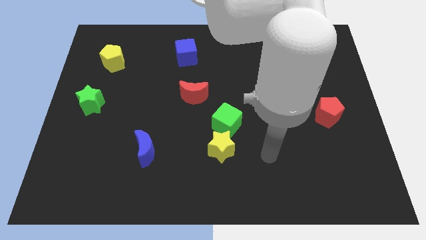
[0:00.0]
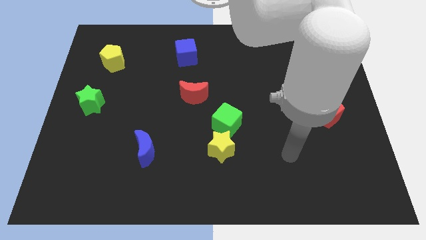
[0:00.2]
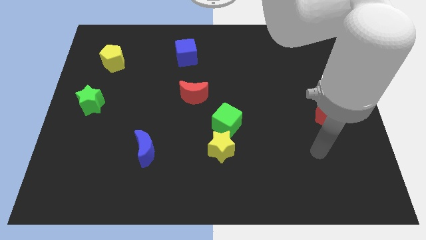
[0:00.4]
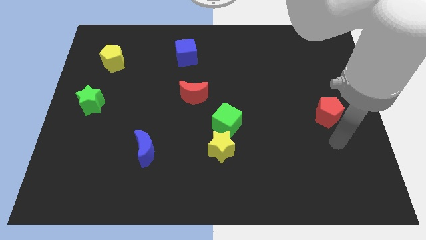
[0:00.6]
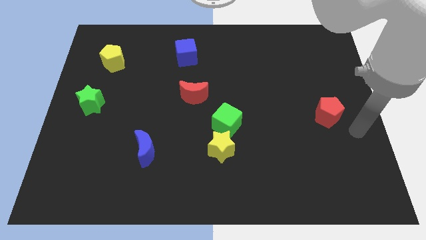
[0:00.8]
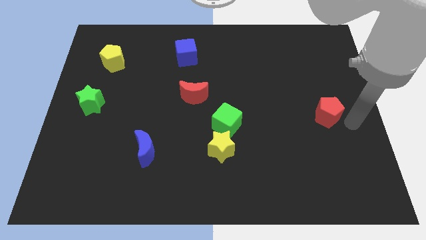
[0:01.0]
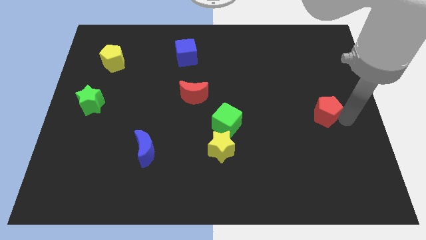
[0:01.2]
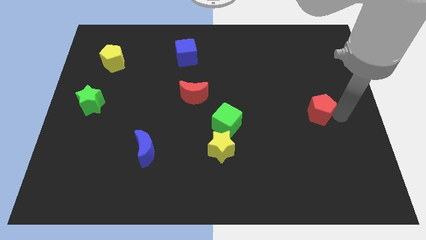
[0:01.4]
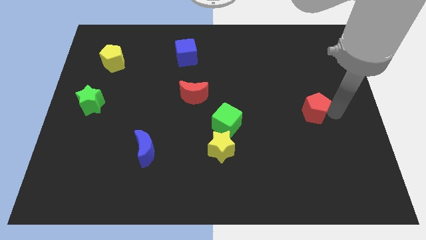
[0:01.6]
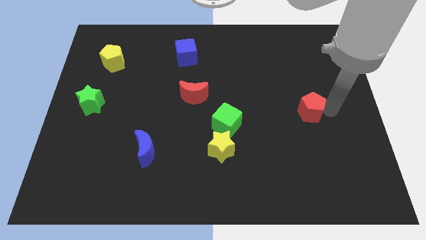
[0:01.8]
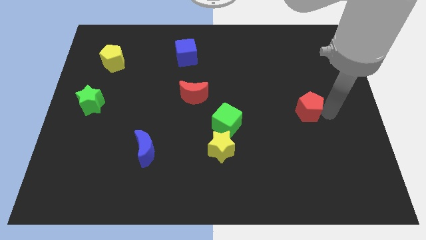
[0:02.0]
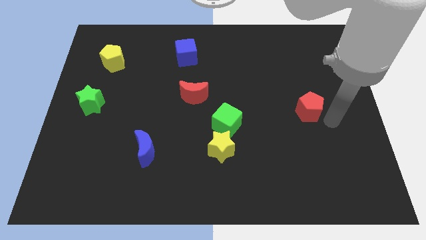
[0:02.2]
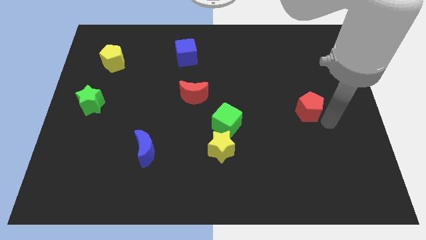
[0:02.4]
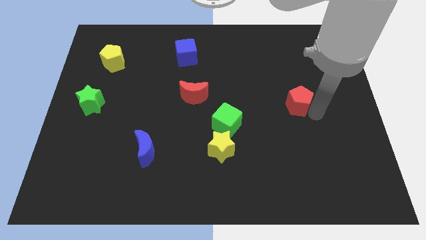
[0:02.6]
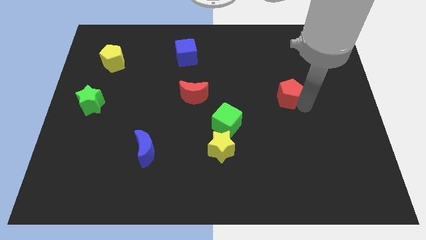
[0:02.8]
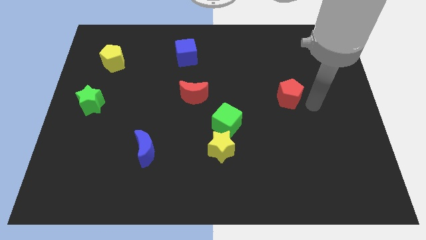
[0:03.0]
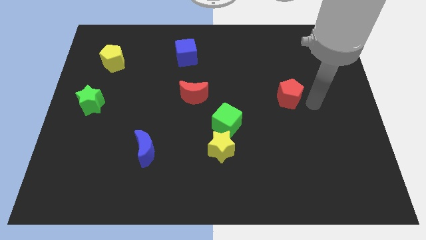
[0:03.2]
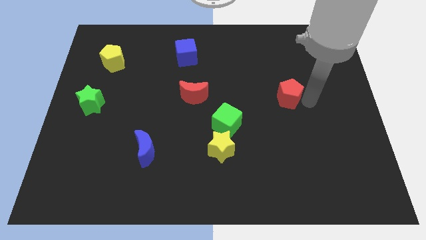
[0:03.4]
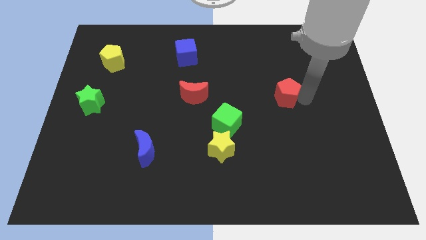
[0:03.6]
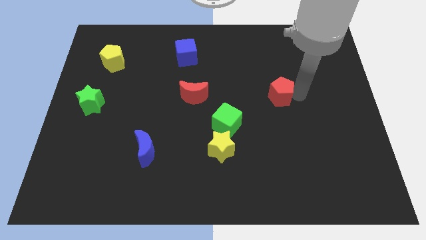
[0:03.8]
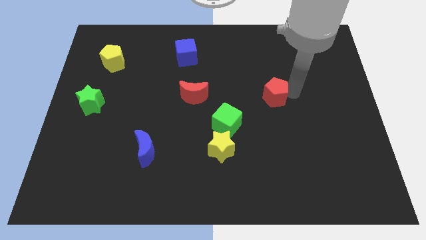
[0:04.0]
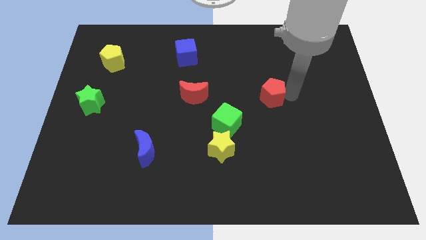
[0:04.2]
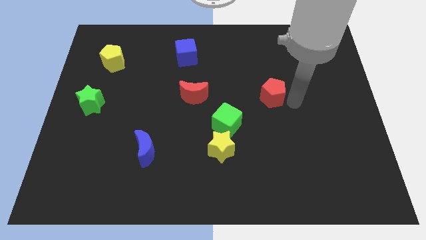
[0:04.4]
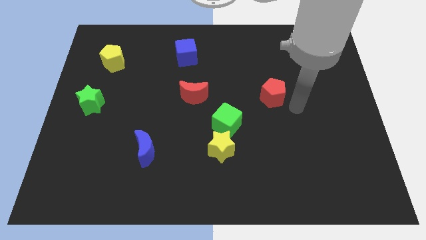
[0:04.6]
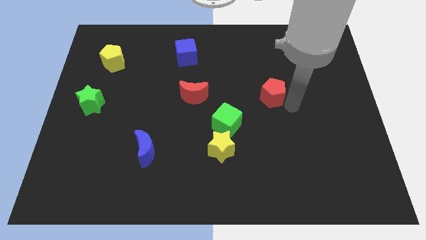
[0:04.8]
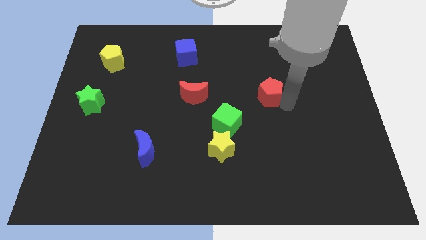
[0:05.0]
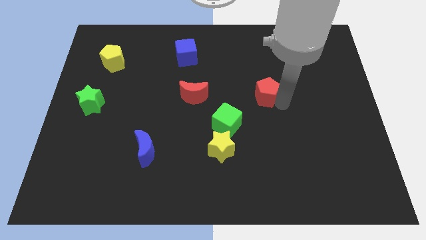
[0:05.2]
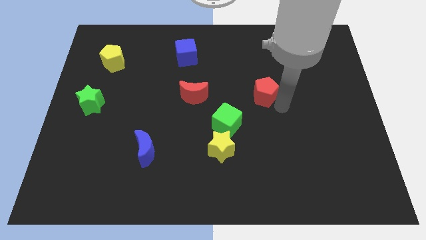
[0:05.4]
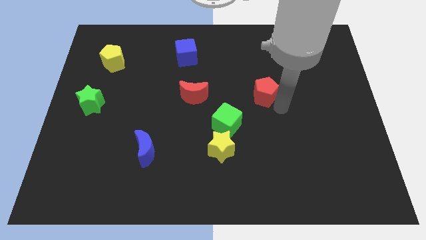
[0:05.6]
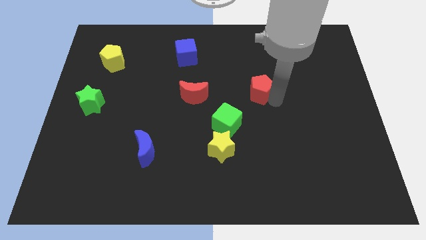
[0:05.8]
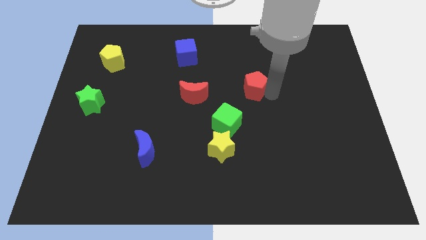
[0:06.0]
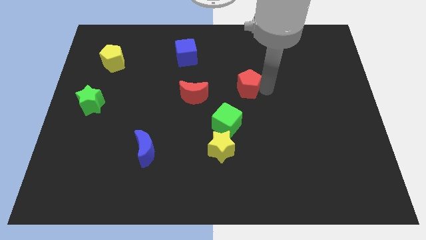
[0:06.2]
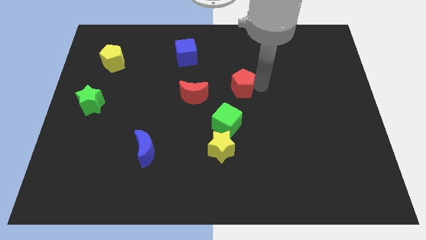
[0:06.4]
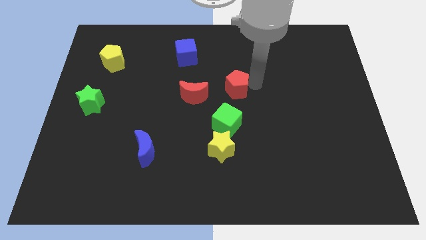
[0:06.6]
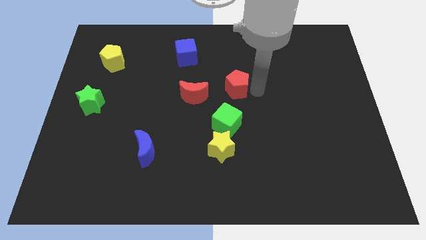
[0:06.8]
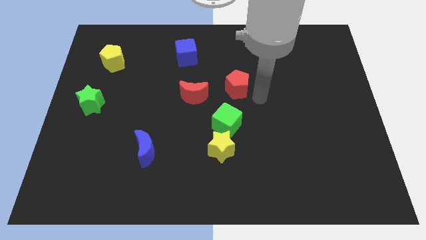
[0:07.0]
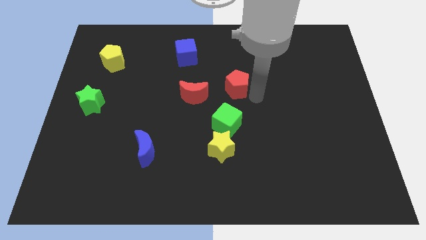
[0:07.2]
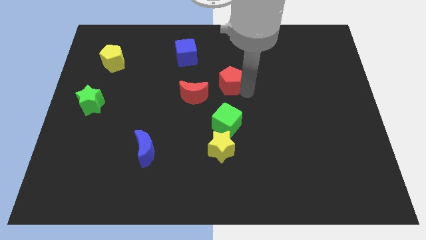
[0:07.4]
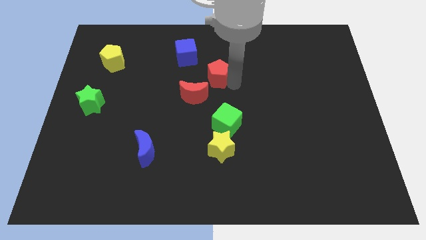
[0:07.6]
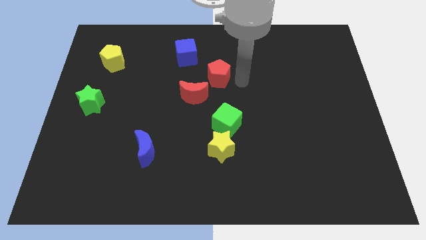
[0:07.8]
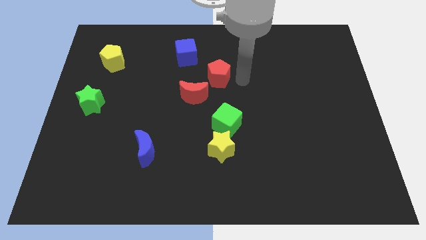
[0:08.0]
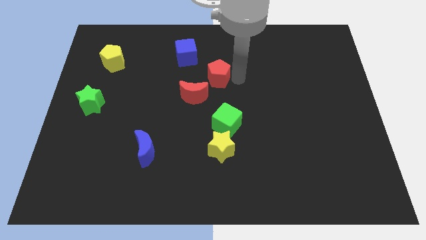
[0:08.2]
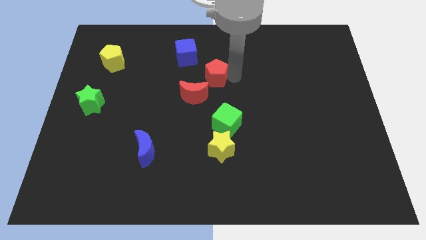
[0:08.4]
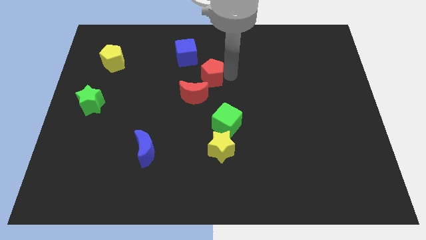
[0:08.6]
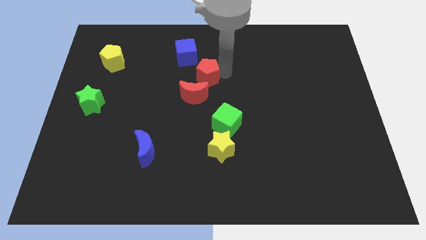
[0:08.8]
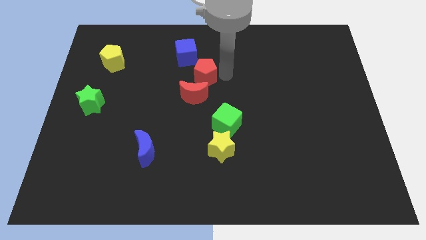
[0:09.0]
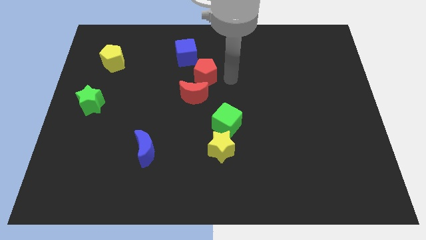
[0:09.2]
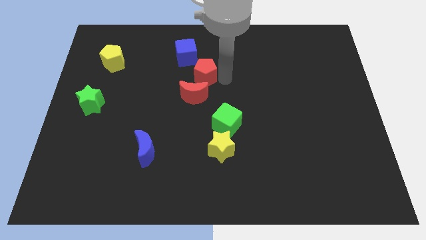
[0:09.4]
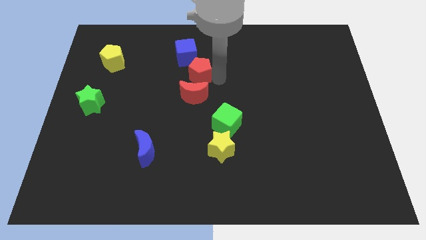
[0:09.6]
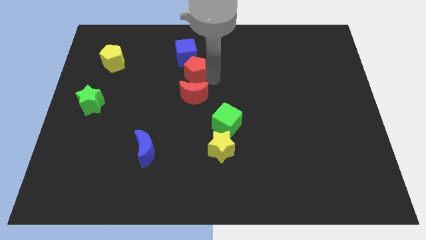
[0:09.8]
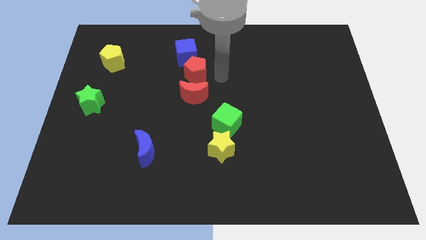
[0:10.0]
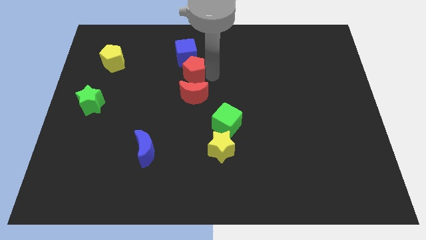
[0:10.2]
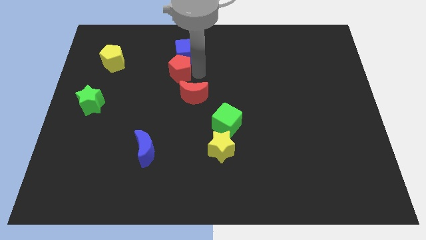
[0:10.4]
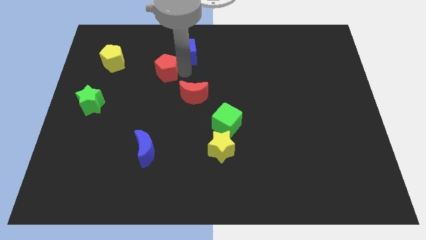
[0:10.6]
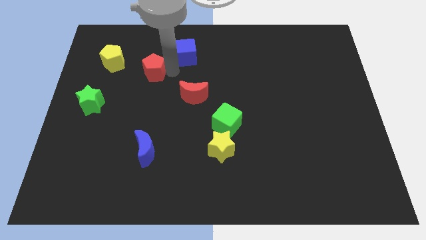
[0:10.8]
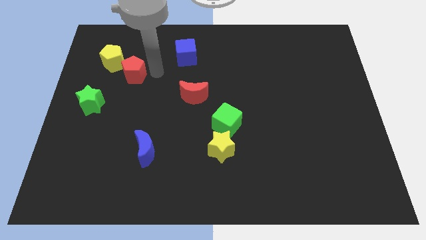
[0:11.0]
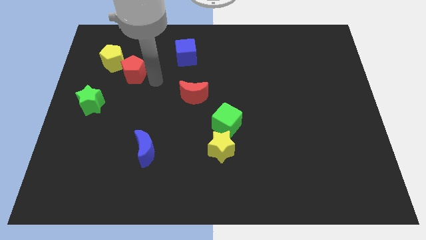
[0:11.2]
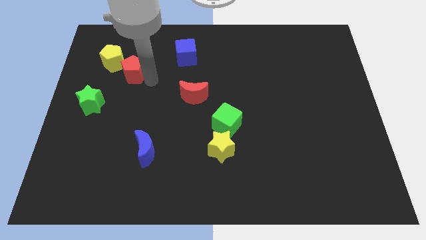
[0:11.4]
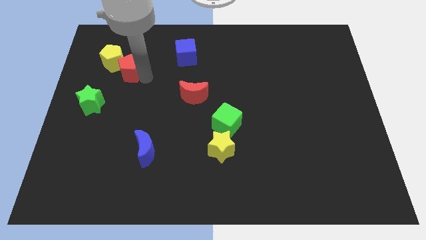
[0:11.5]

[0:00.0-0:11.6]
slide the red pentagon close to the yellow pentagon

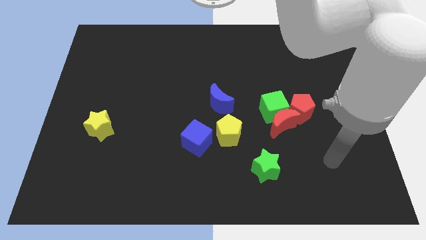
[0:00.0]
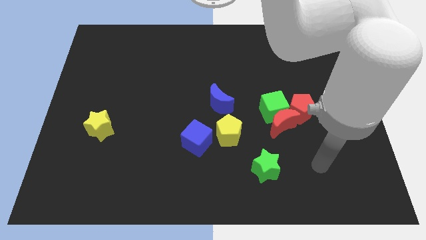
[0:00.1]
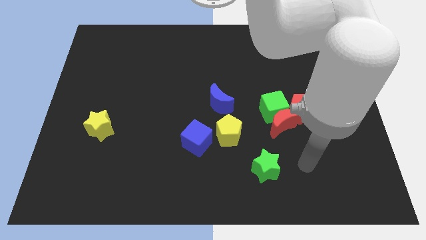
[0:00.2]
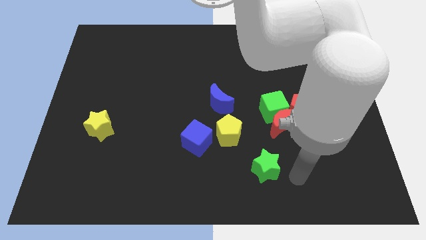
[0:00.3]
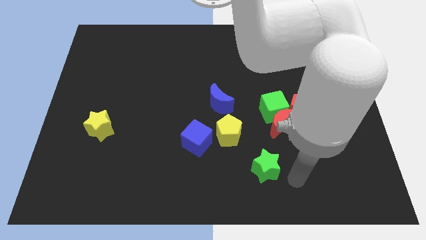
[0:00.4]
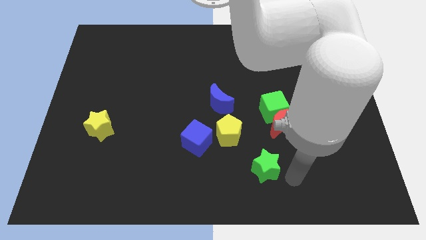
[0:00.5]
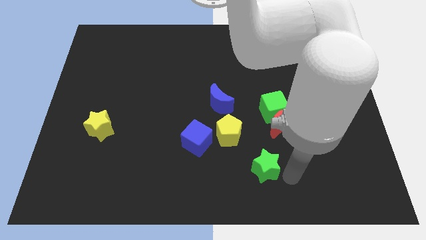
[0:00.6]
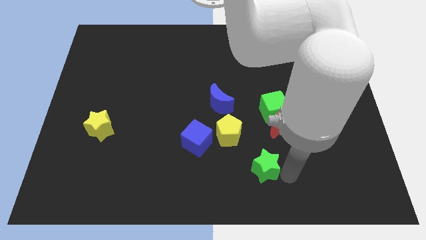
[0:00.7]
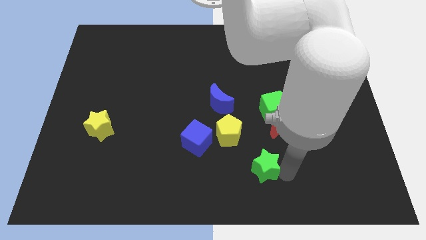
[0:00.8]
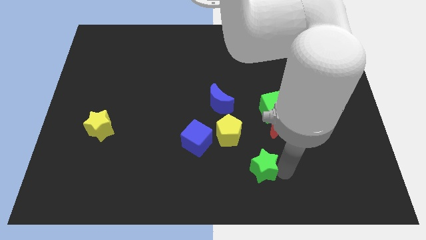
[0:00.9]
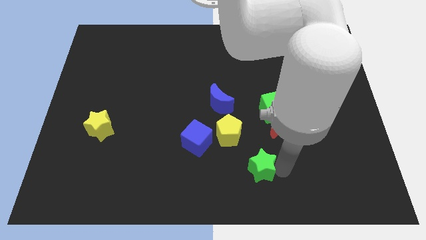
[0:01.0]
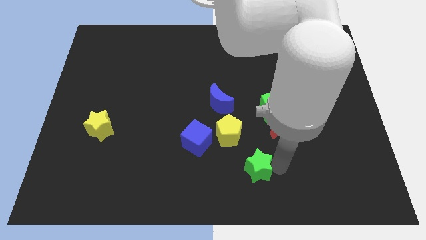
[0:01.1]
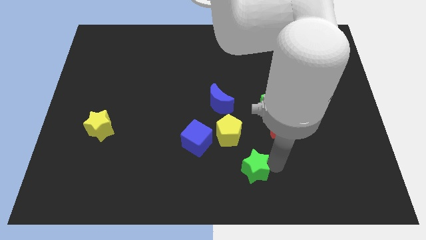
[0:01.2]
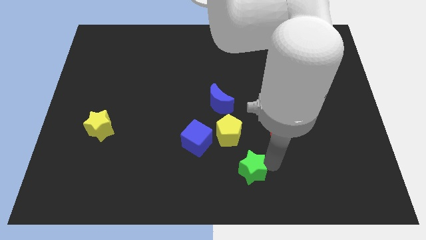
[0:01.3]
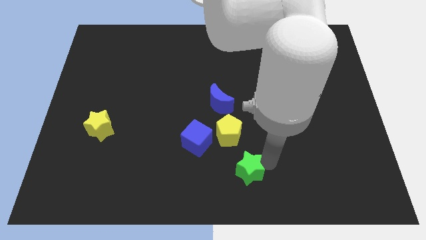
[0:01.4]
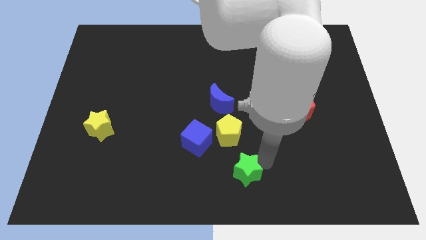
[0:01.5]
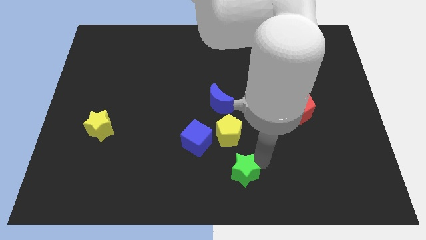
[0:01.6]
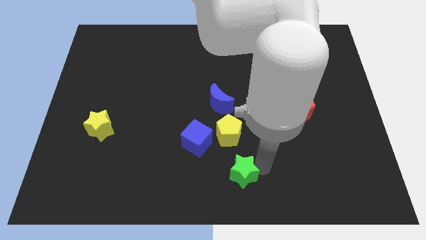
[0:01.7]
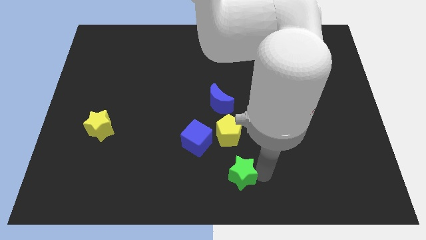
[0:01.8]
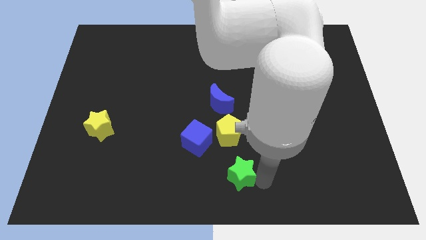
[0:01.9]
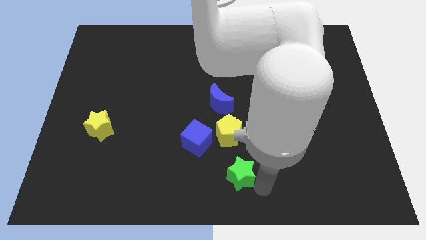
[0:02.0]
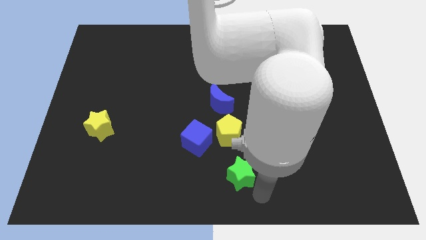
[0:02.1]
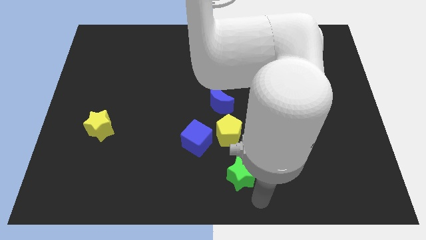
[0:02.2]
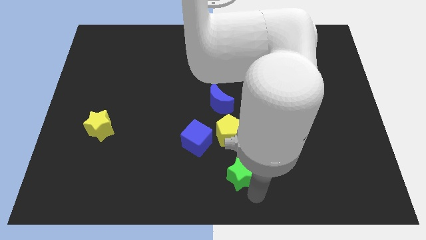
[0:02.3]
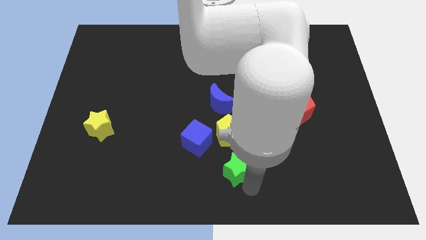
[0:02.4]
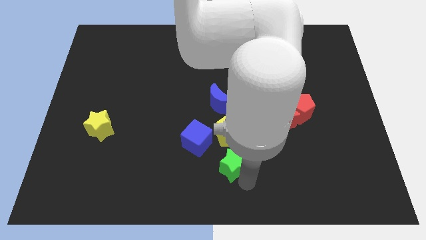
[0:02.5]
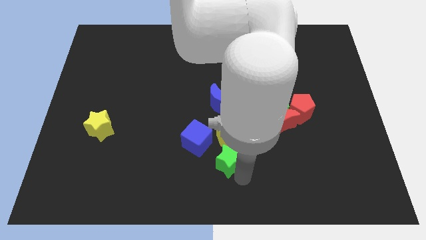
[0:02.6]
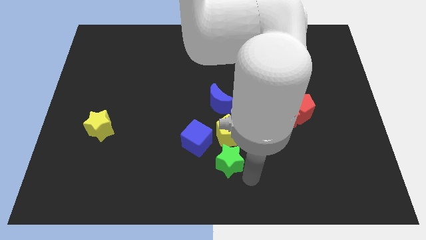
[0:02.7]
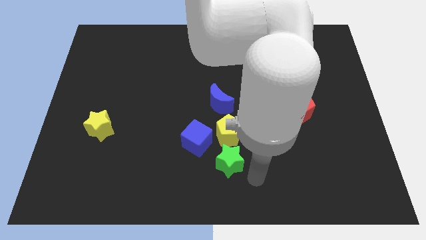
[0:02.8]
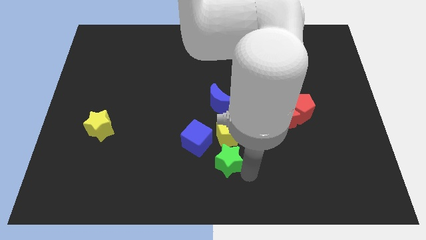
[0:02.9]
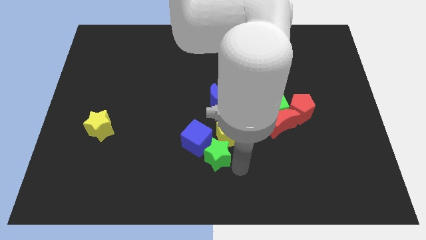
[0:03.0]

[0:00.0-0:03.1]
slide the green star towards the blue cube
